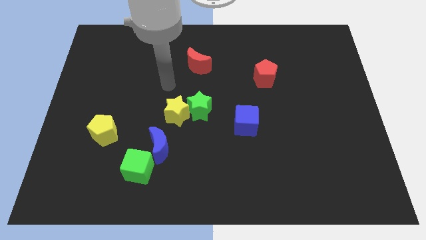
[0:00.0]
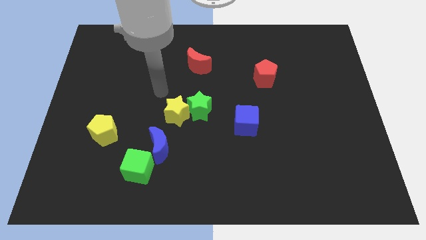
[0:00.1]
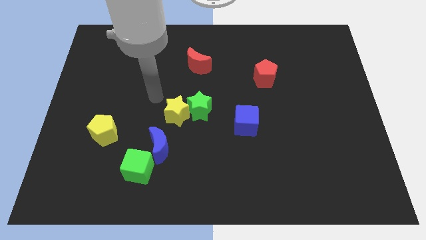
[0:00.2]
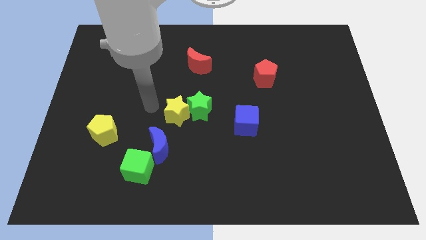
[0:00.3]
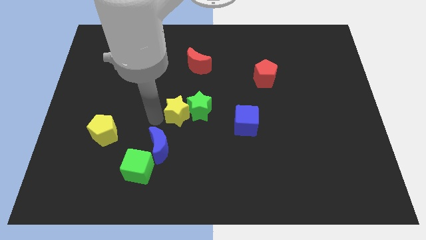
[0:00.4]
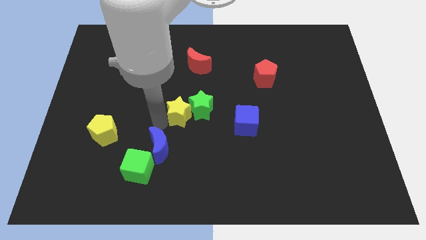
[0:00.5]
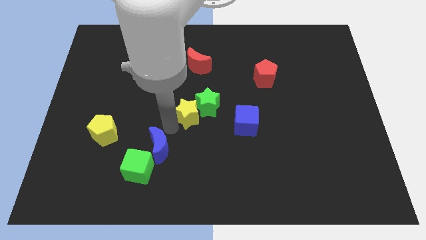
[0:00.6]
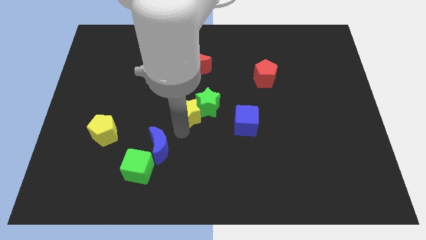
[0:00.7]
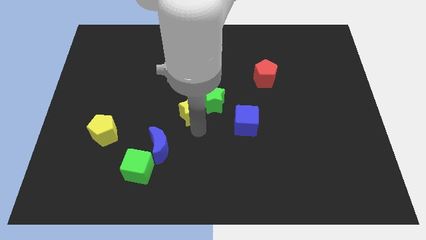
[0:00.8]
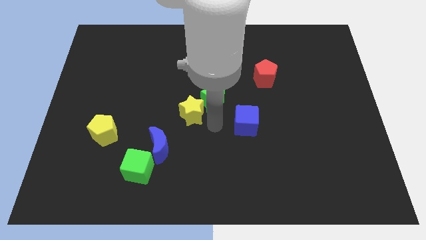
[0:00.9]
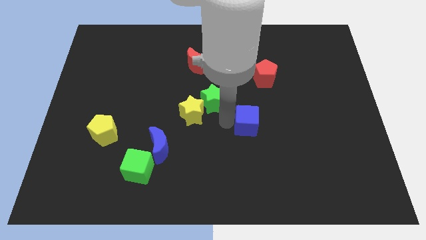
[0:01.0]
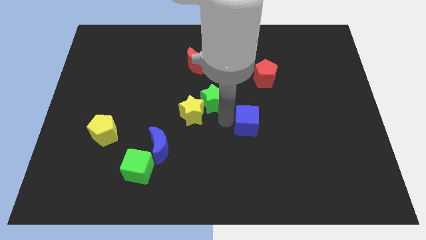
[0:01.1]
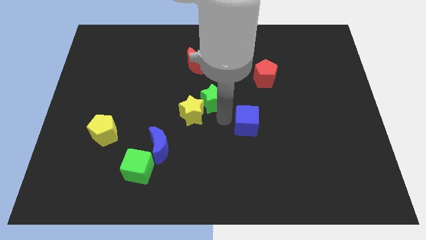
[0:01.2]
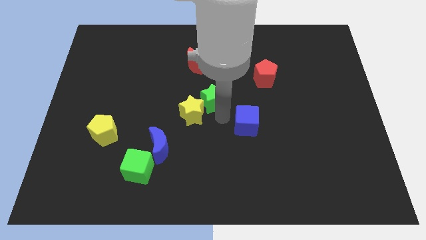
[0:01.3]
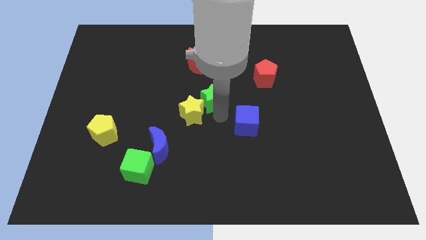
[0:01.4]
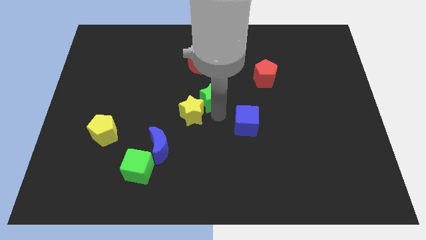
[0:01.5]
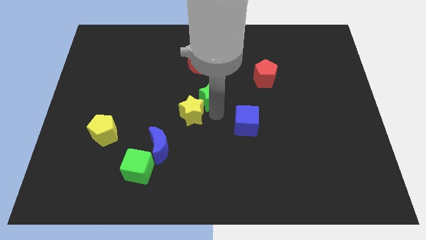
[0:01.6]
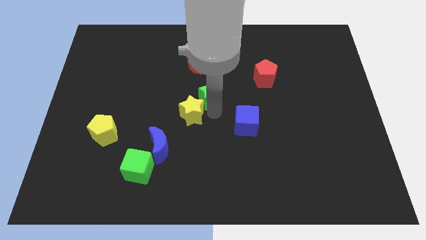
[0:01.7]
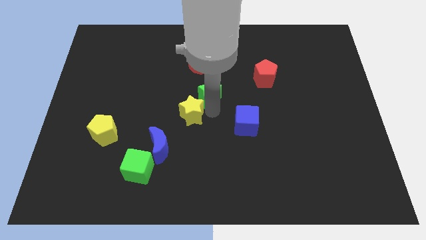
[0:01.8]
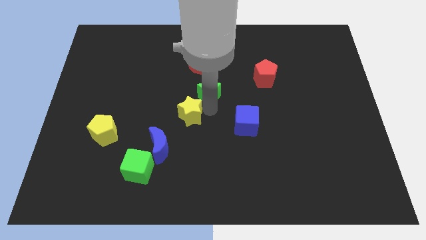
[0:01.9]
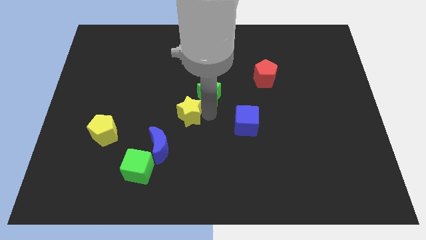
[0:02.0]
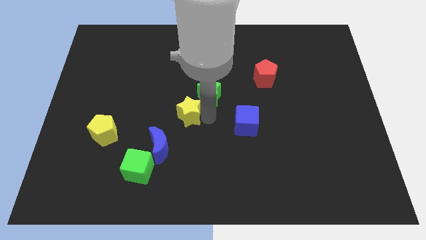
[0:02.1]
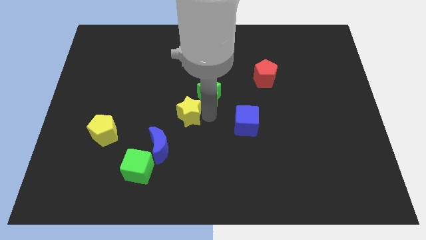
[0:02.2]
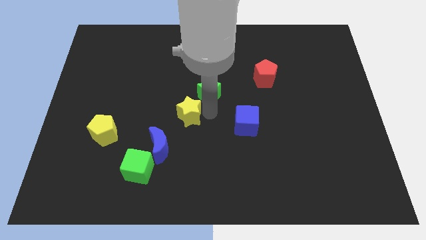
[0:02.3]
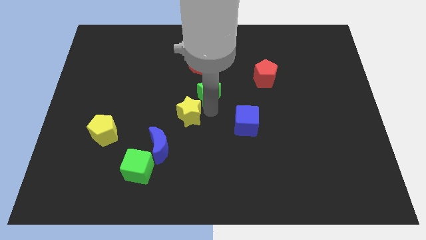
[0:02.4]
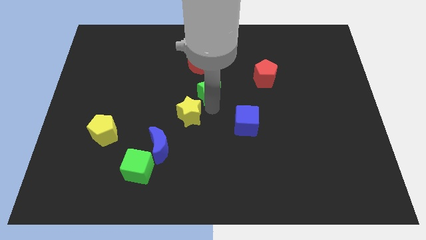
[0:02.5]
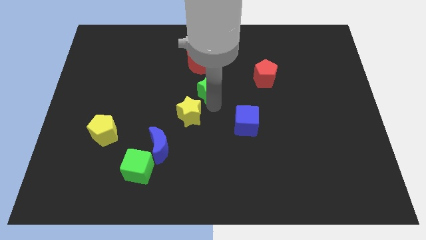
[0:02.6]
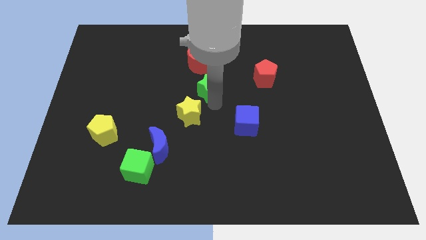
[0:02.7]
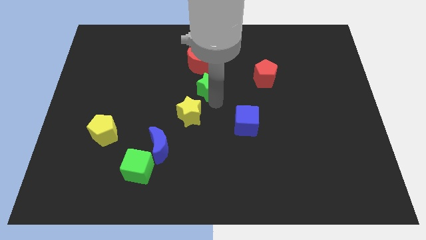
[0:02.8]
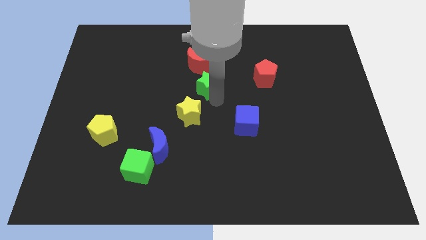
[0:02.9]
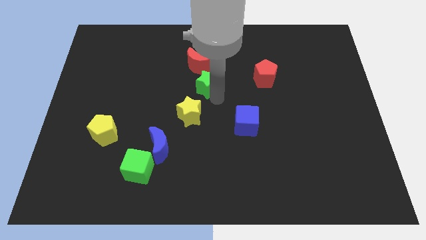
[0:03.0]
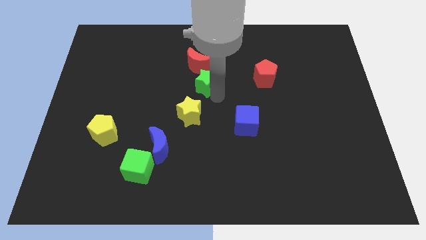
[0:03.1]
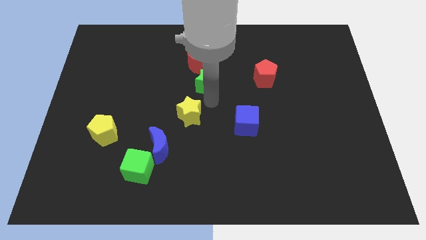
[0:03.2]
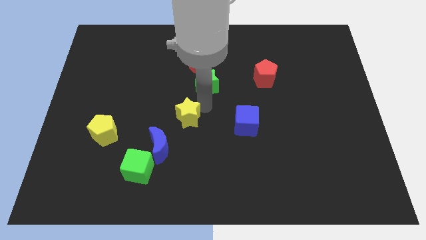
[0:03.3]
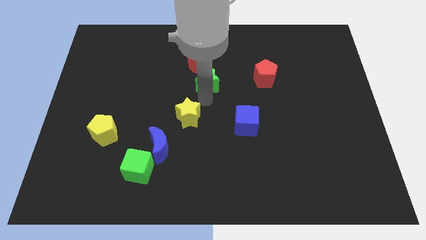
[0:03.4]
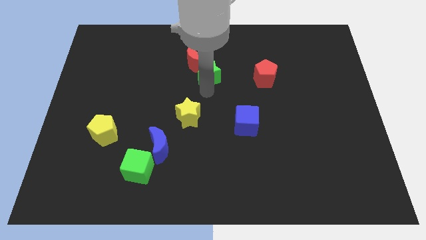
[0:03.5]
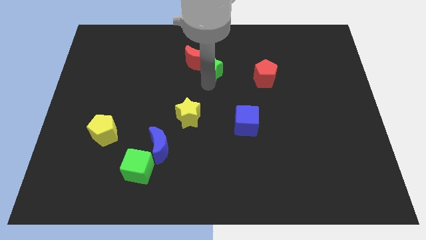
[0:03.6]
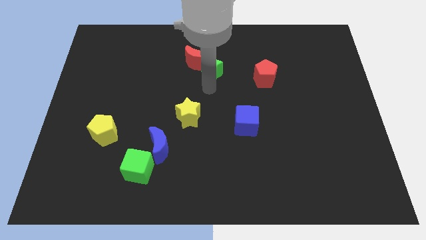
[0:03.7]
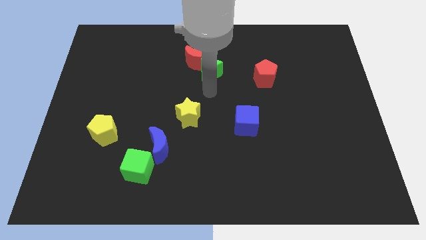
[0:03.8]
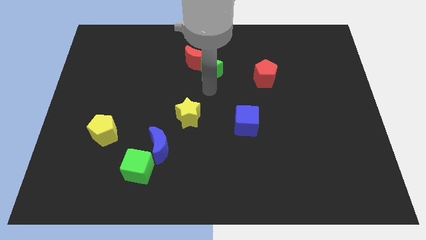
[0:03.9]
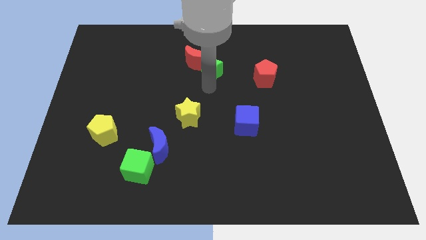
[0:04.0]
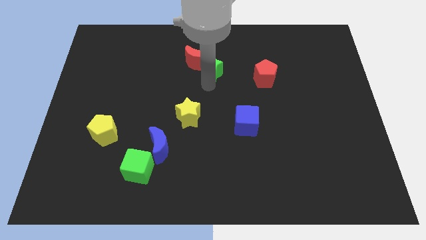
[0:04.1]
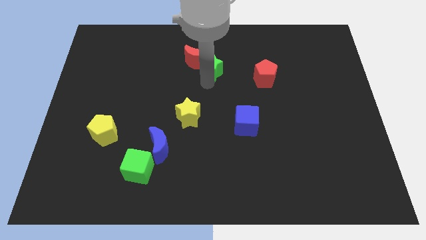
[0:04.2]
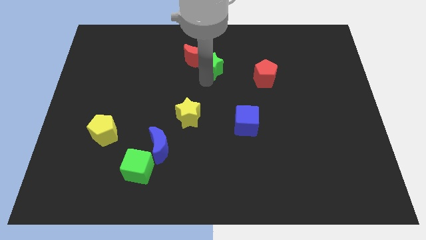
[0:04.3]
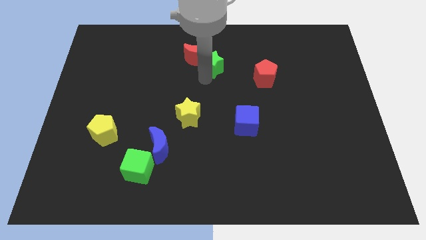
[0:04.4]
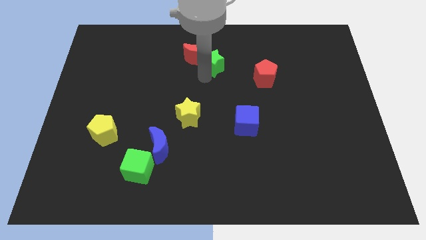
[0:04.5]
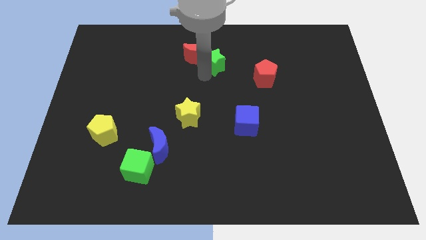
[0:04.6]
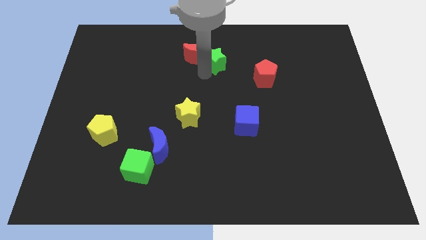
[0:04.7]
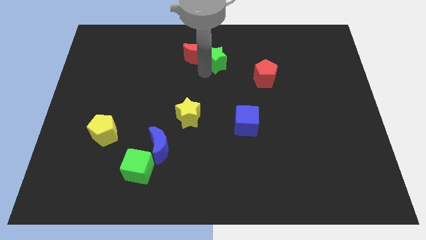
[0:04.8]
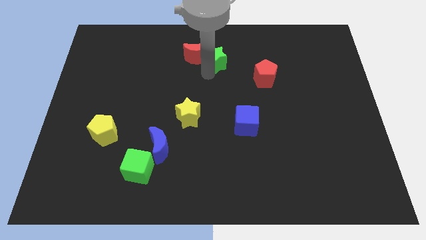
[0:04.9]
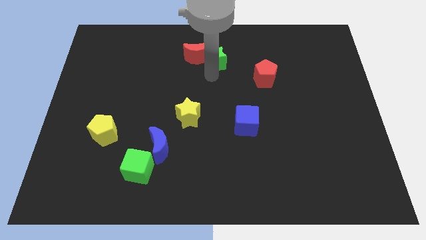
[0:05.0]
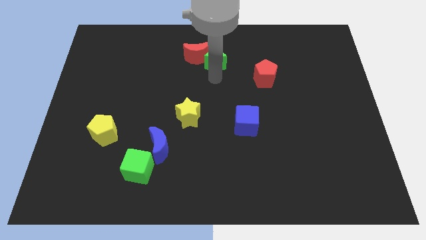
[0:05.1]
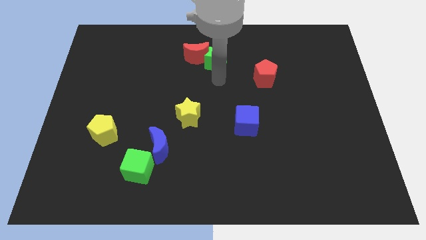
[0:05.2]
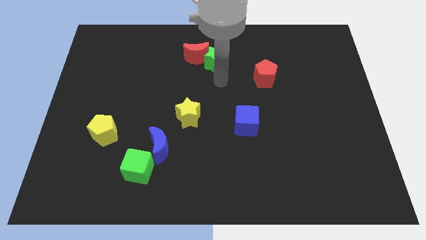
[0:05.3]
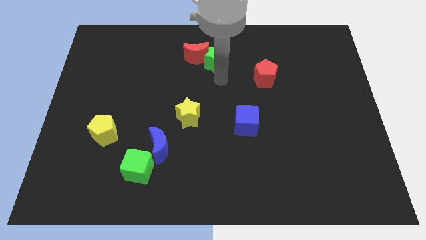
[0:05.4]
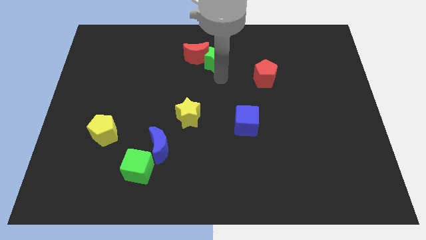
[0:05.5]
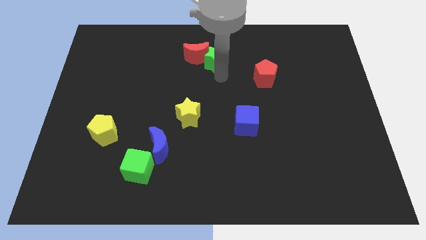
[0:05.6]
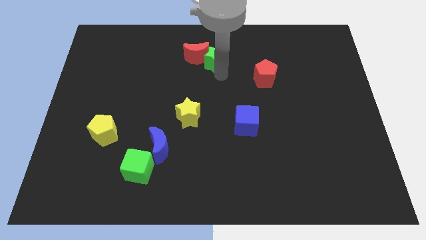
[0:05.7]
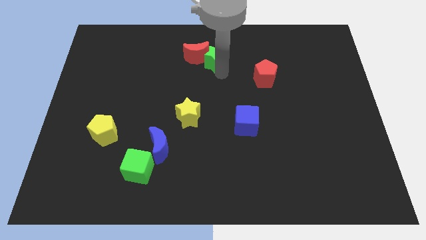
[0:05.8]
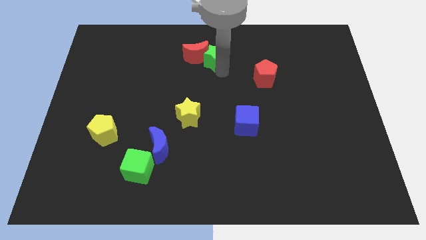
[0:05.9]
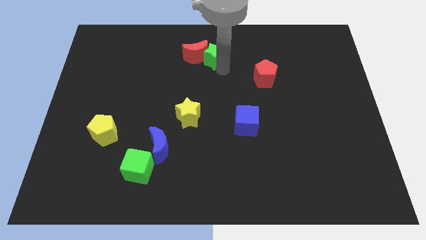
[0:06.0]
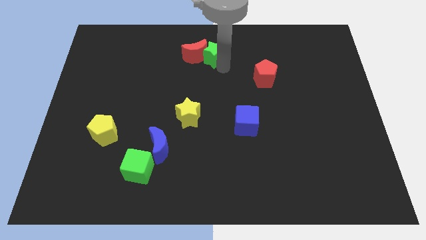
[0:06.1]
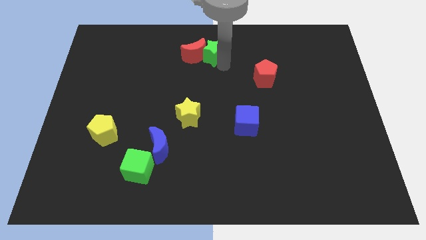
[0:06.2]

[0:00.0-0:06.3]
put the green star to the top side
